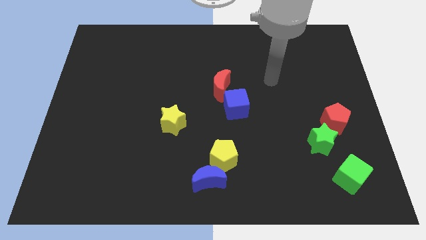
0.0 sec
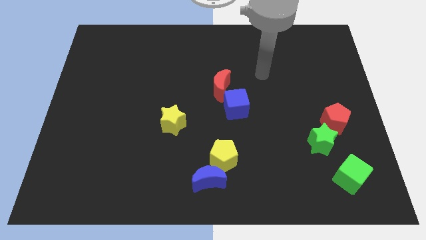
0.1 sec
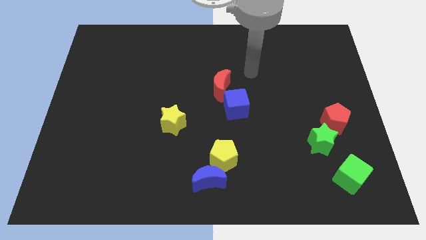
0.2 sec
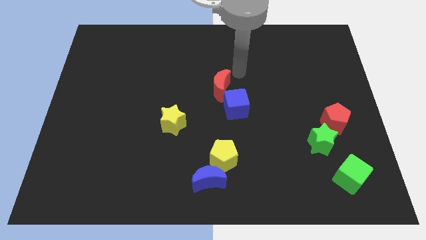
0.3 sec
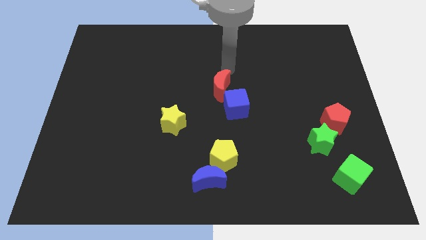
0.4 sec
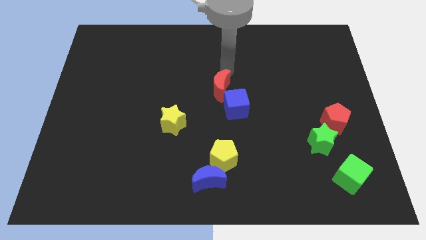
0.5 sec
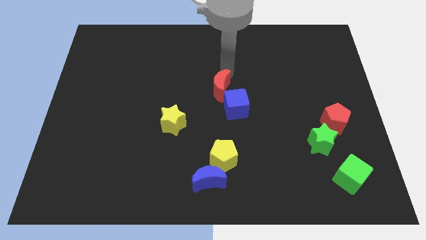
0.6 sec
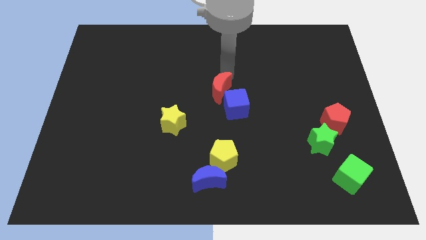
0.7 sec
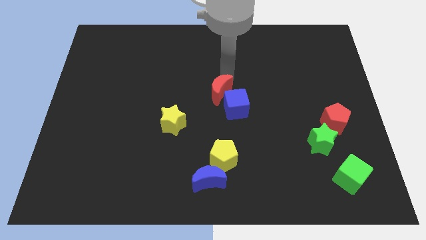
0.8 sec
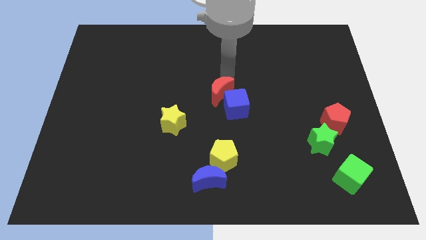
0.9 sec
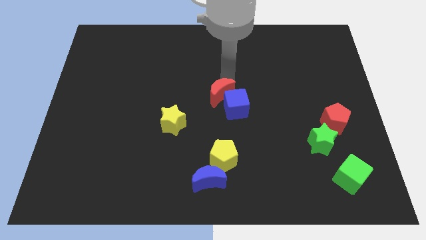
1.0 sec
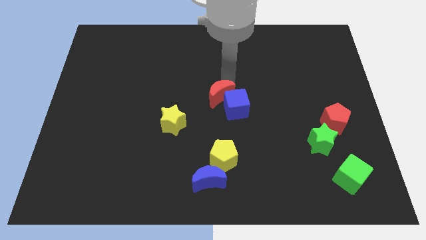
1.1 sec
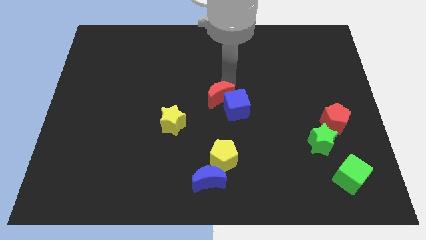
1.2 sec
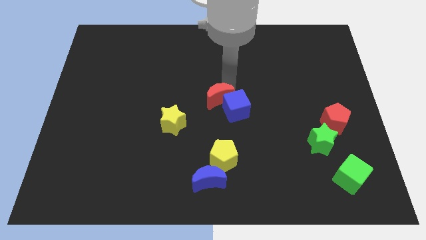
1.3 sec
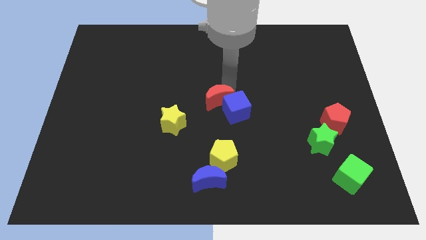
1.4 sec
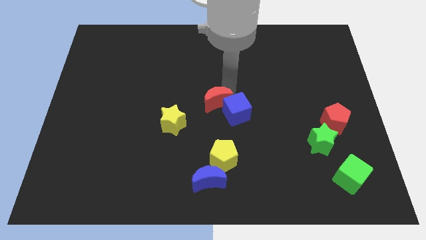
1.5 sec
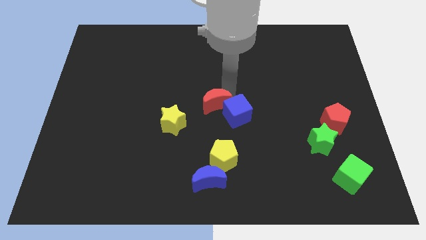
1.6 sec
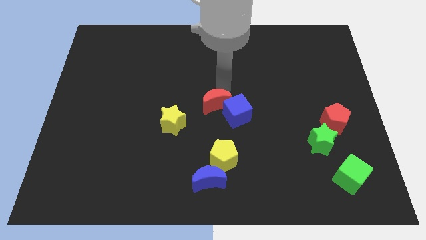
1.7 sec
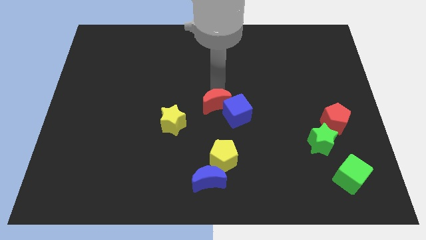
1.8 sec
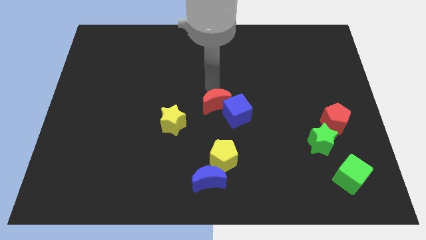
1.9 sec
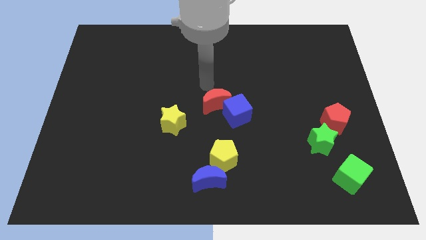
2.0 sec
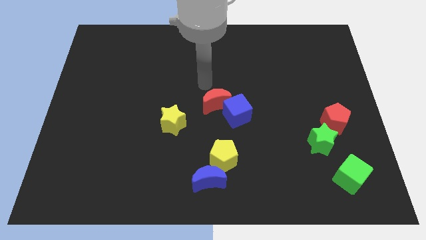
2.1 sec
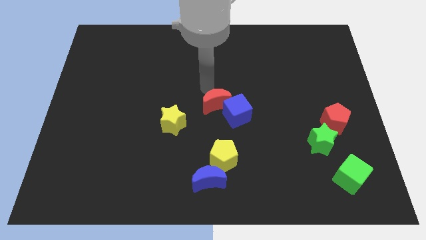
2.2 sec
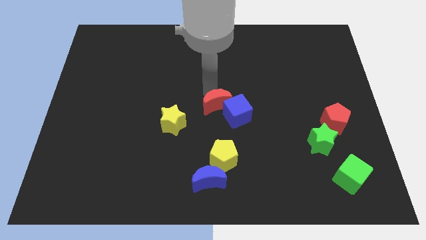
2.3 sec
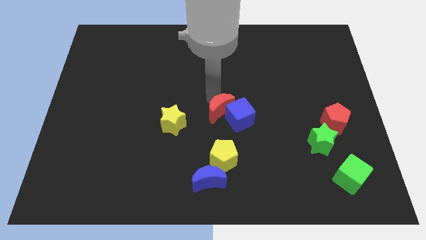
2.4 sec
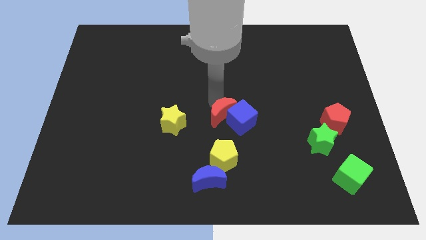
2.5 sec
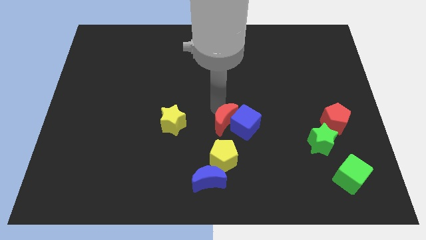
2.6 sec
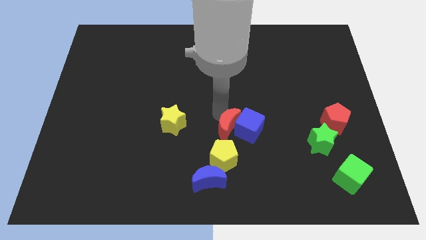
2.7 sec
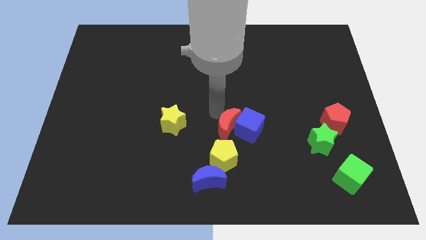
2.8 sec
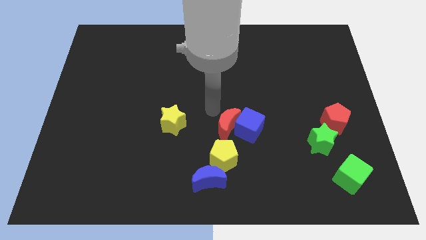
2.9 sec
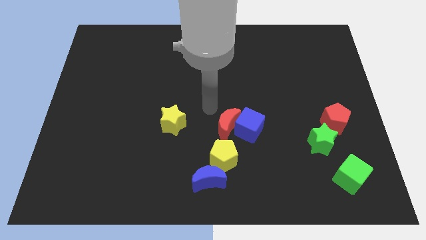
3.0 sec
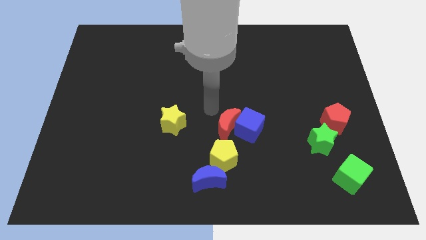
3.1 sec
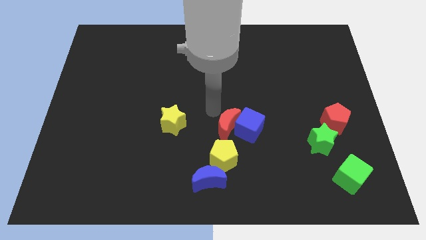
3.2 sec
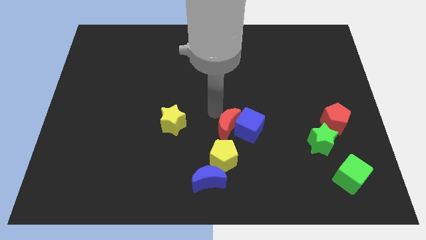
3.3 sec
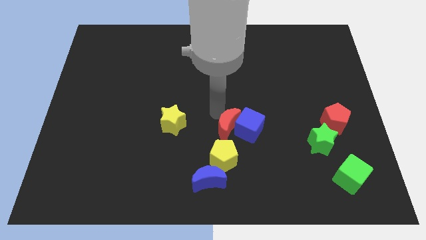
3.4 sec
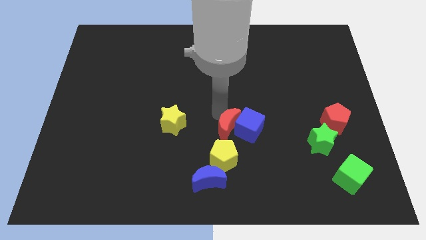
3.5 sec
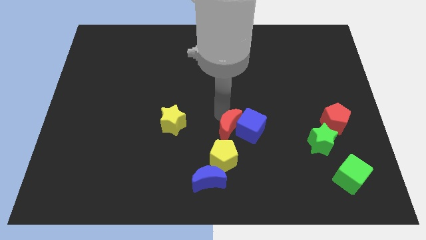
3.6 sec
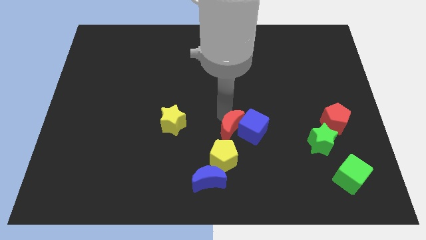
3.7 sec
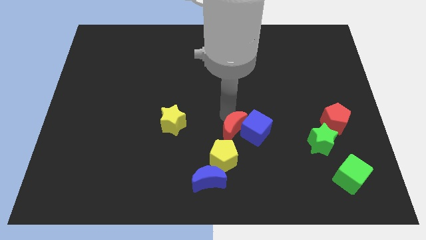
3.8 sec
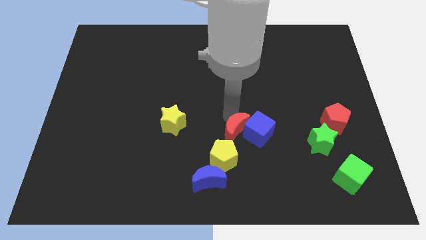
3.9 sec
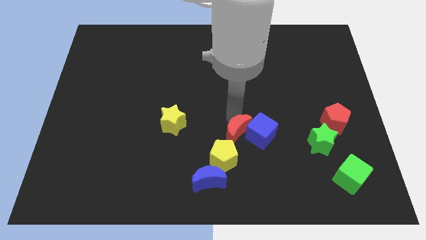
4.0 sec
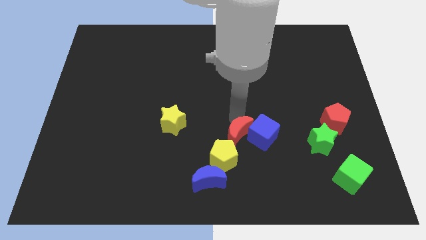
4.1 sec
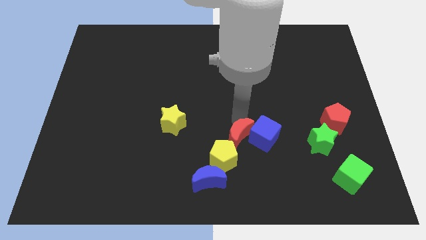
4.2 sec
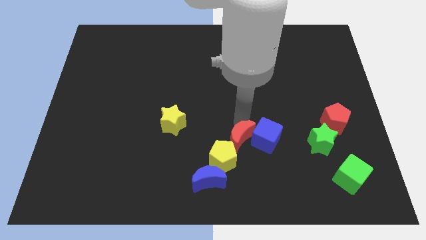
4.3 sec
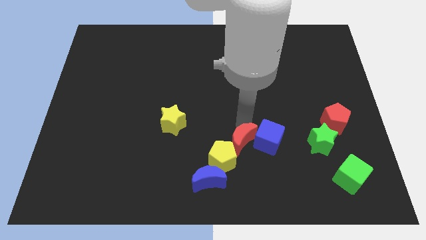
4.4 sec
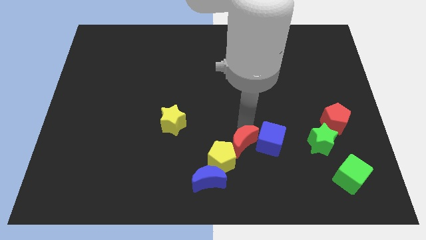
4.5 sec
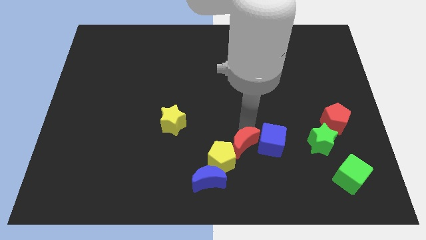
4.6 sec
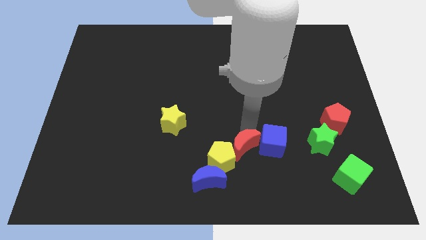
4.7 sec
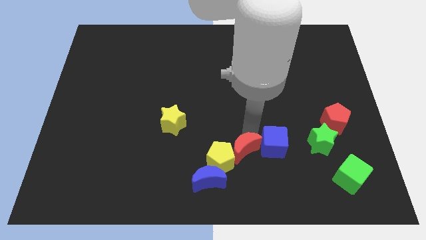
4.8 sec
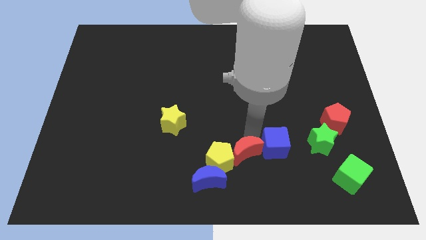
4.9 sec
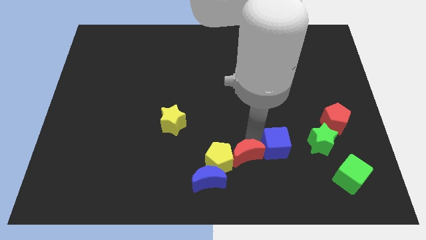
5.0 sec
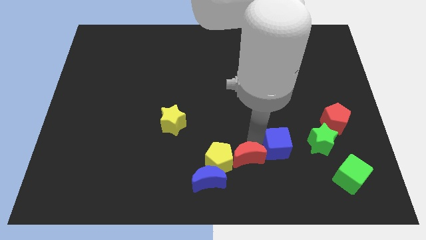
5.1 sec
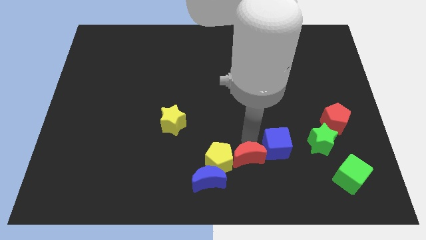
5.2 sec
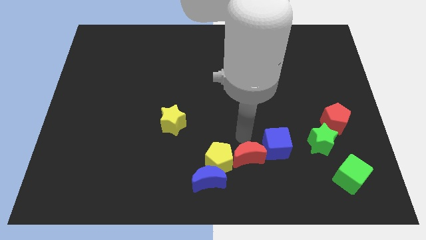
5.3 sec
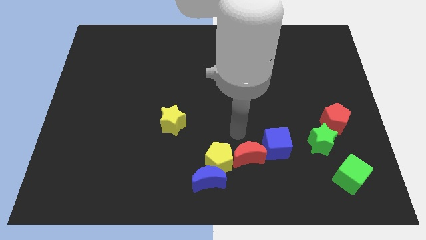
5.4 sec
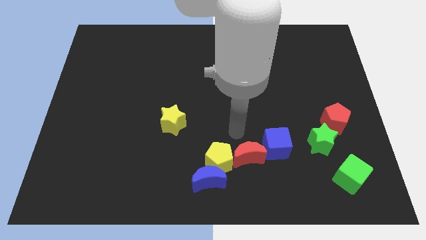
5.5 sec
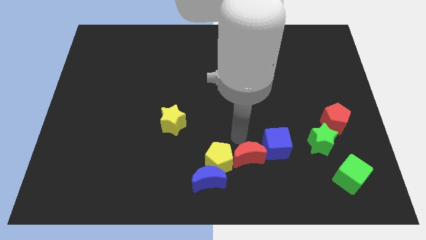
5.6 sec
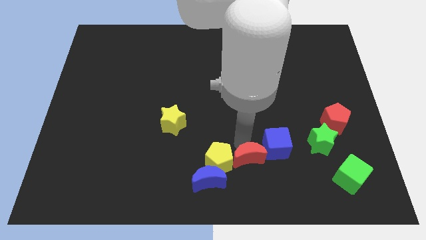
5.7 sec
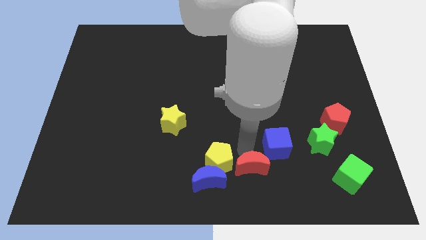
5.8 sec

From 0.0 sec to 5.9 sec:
put the red moon to the right of the blue moon

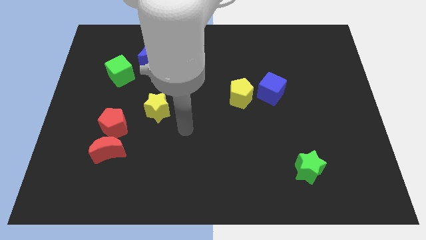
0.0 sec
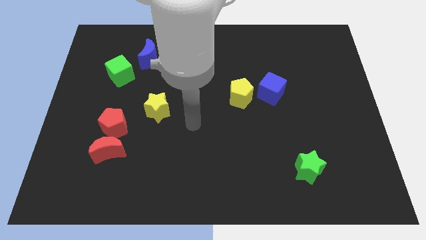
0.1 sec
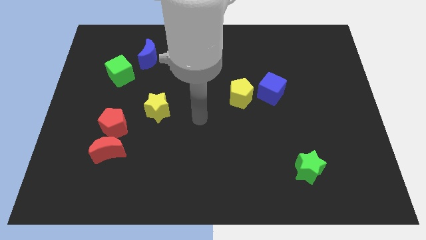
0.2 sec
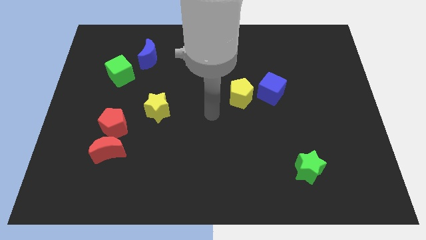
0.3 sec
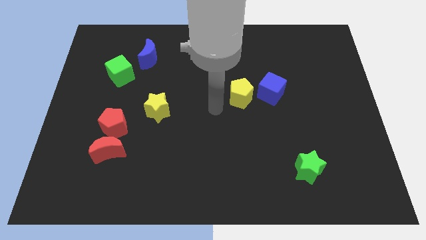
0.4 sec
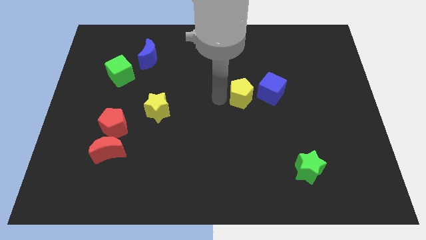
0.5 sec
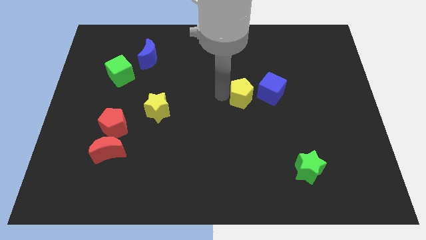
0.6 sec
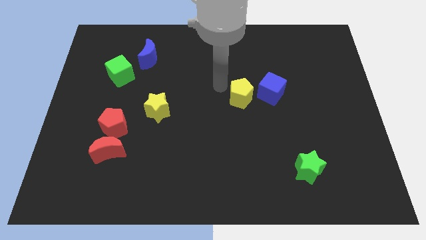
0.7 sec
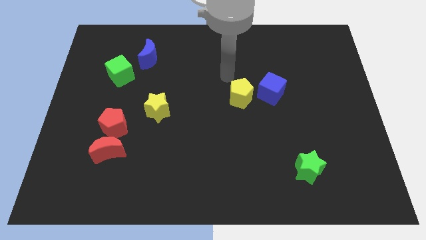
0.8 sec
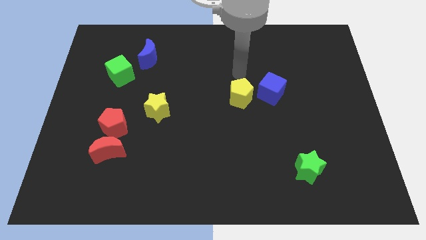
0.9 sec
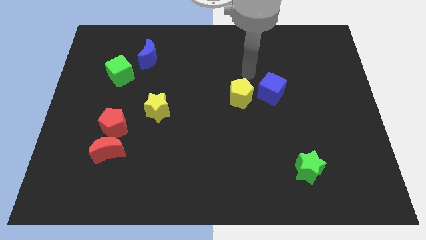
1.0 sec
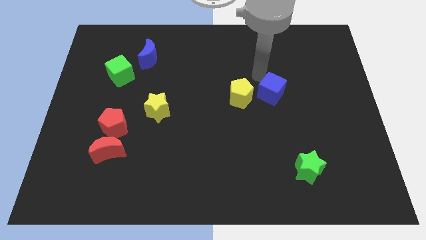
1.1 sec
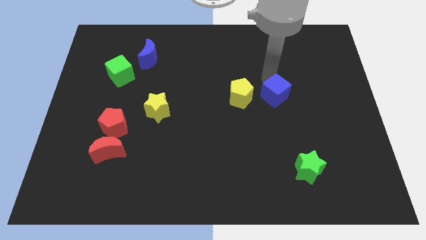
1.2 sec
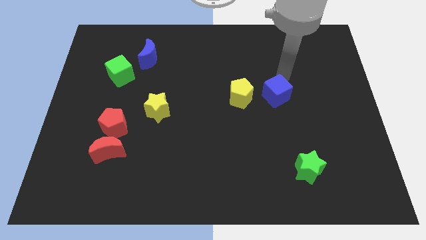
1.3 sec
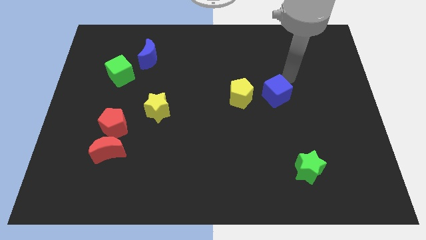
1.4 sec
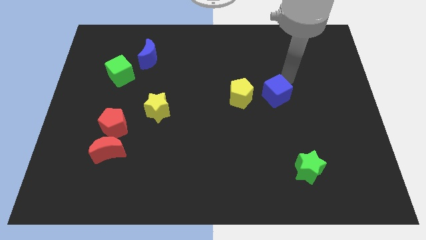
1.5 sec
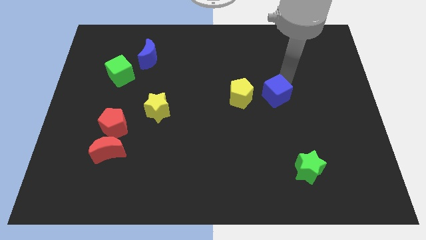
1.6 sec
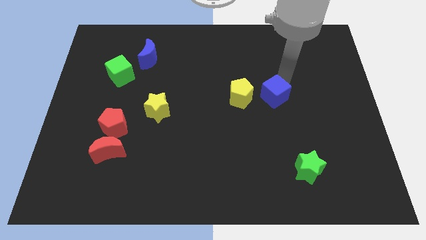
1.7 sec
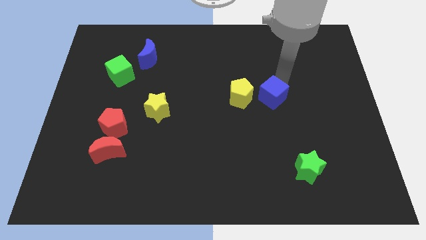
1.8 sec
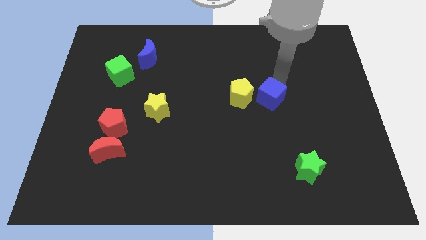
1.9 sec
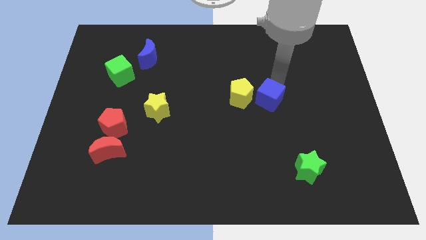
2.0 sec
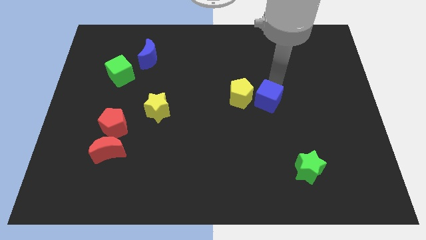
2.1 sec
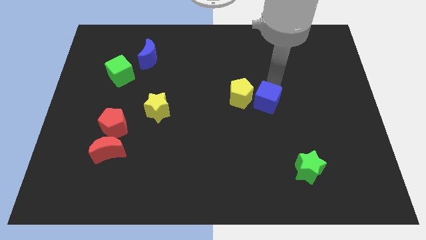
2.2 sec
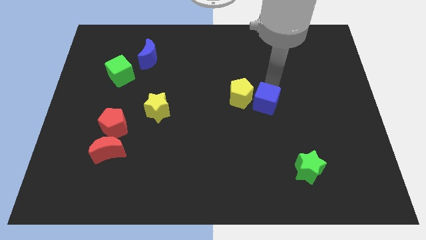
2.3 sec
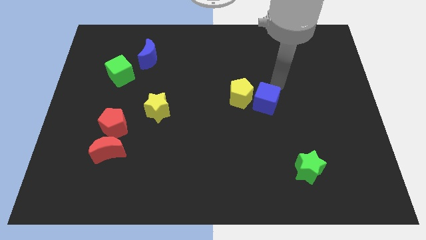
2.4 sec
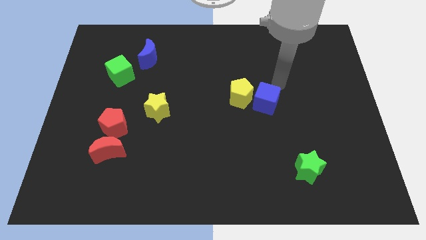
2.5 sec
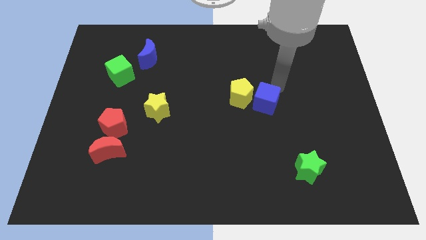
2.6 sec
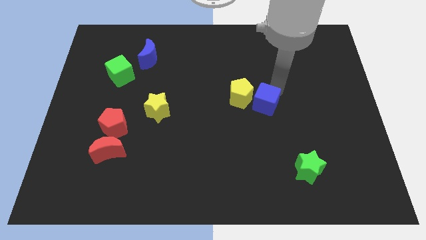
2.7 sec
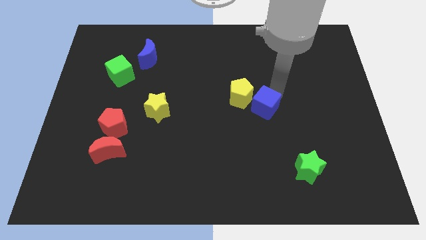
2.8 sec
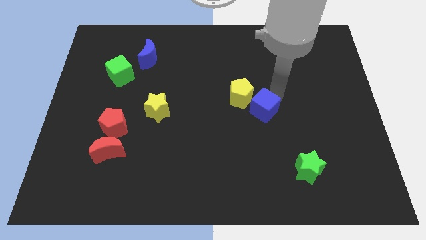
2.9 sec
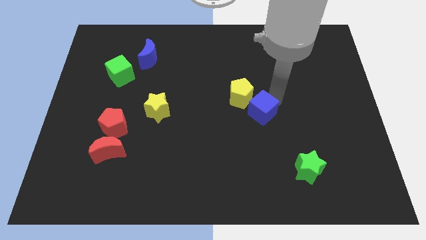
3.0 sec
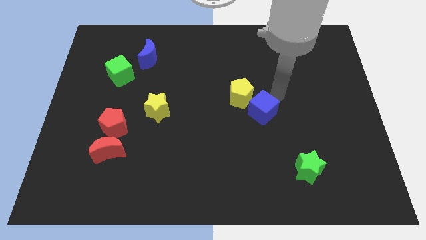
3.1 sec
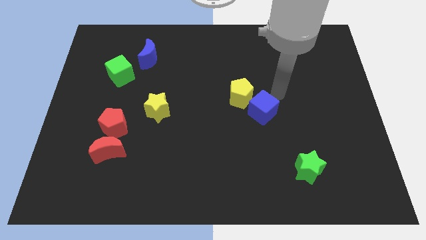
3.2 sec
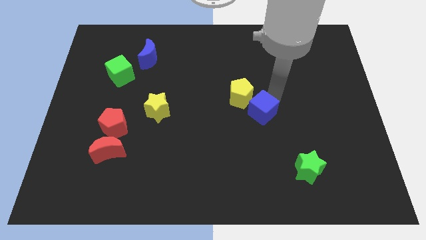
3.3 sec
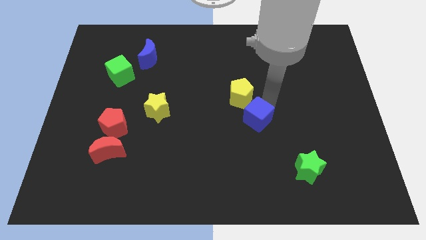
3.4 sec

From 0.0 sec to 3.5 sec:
move the blue cube to the bottom side of the yellow pentagon
